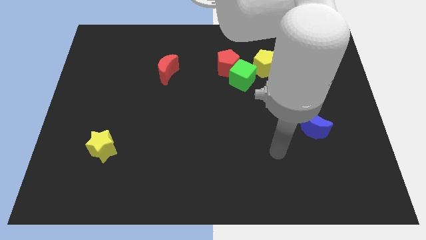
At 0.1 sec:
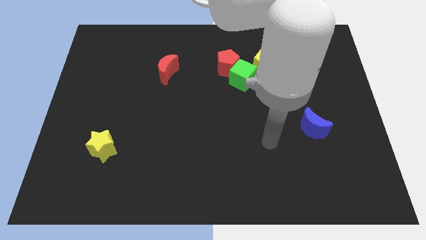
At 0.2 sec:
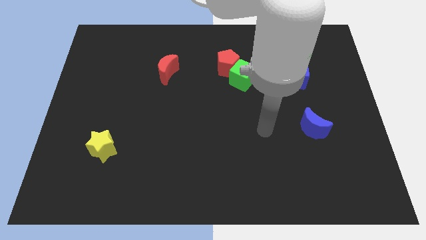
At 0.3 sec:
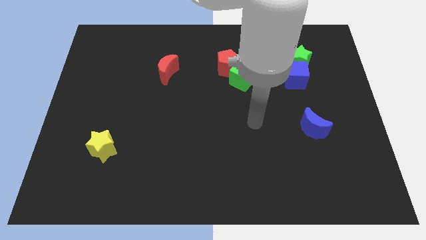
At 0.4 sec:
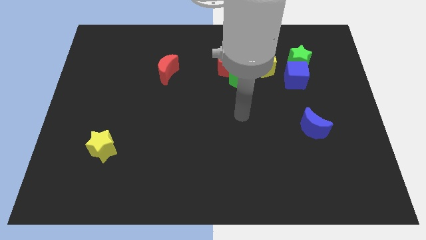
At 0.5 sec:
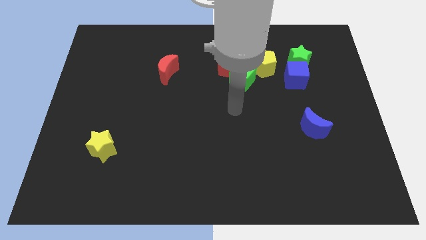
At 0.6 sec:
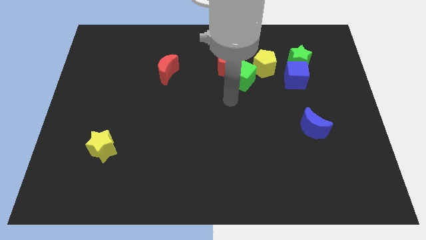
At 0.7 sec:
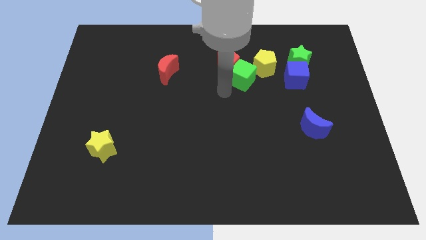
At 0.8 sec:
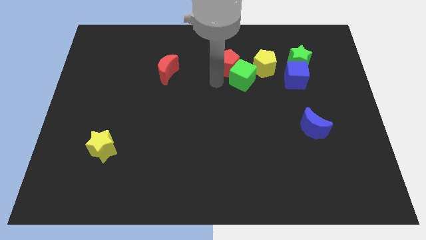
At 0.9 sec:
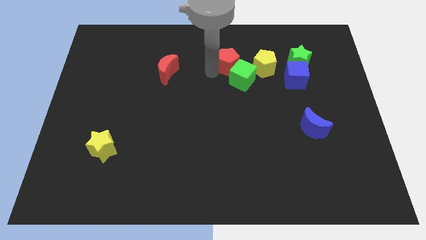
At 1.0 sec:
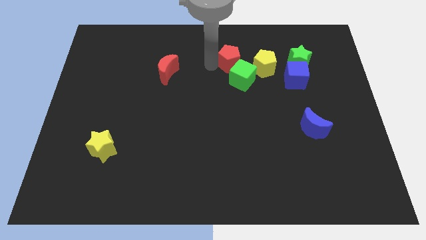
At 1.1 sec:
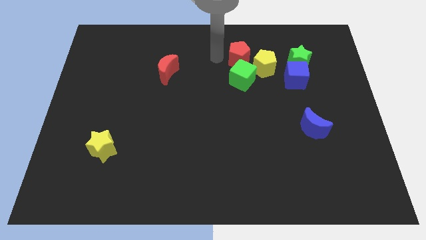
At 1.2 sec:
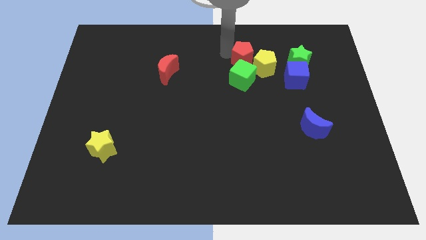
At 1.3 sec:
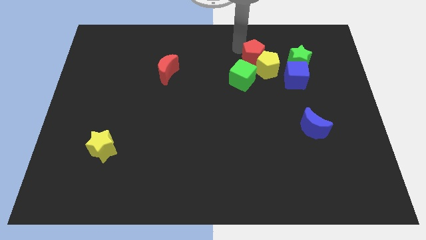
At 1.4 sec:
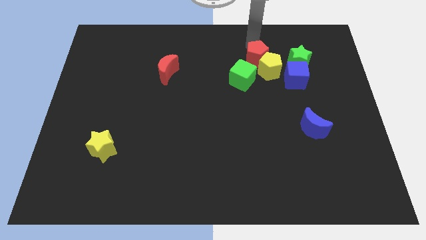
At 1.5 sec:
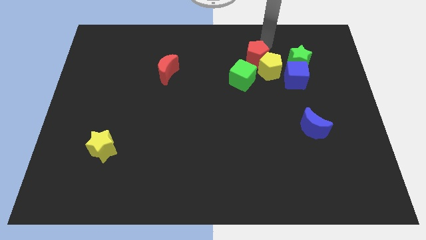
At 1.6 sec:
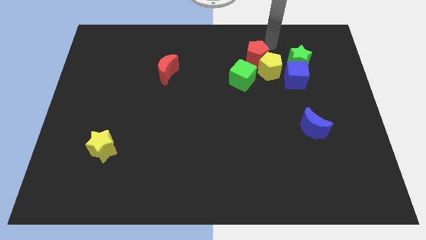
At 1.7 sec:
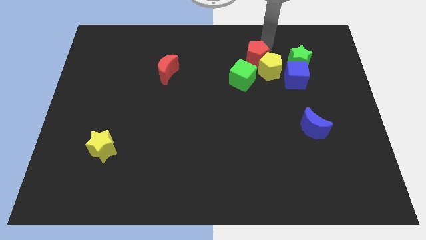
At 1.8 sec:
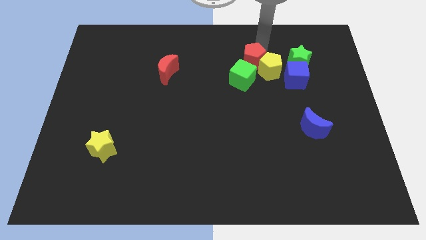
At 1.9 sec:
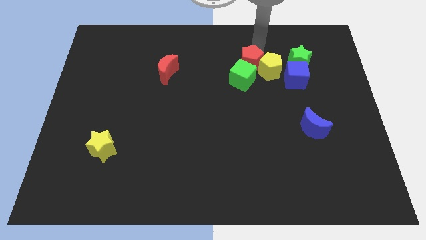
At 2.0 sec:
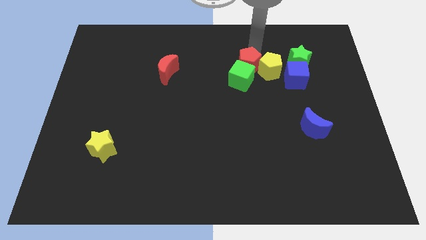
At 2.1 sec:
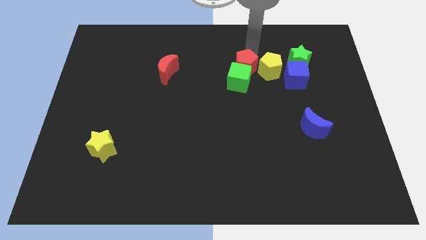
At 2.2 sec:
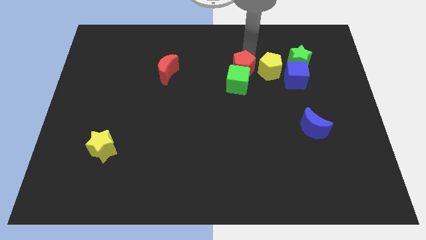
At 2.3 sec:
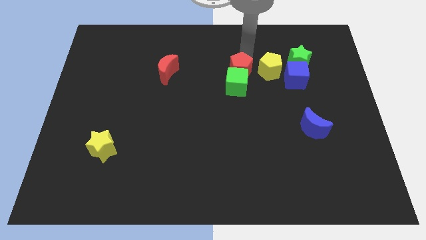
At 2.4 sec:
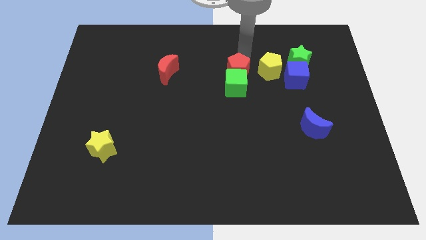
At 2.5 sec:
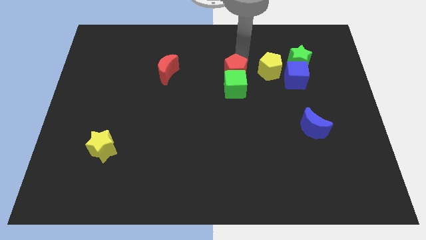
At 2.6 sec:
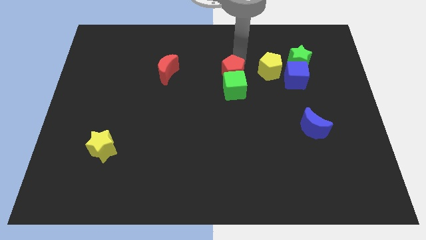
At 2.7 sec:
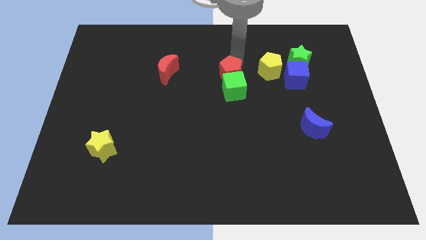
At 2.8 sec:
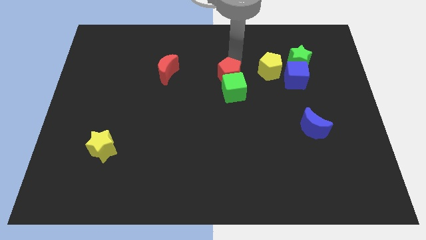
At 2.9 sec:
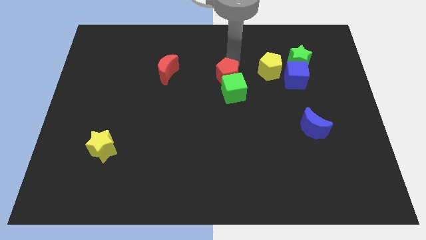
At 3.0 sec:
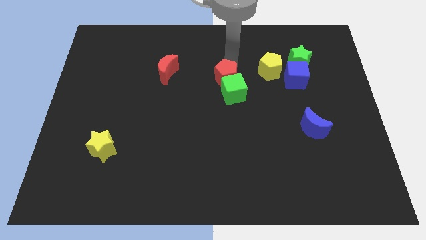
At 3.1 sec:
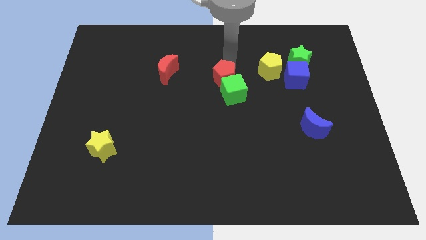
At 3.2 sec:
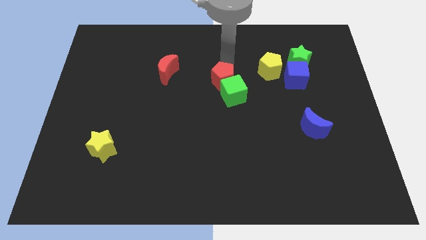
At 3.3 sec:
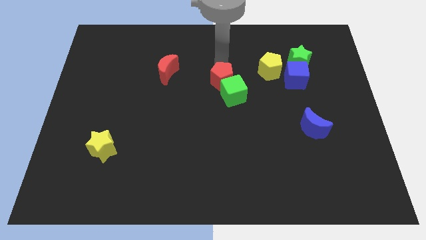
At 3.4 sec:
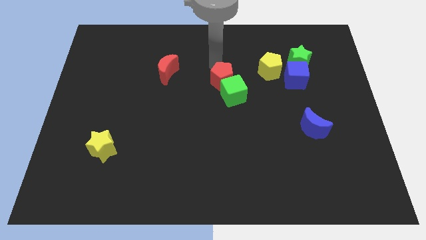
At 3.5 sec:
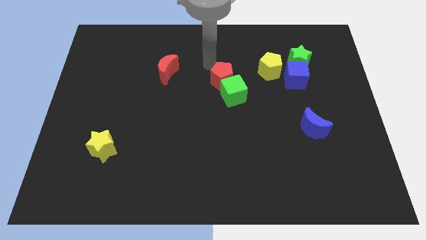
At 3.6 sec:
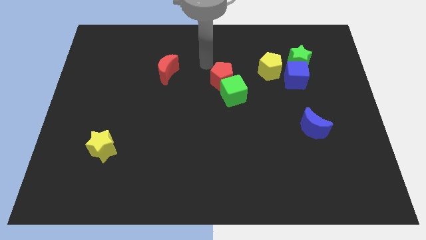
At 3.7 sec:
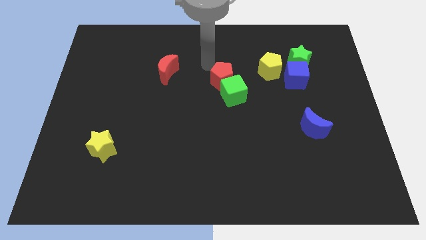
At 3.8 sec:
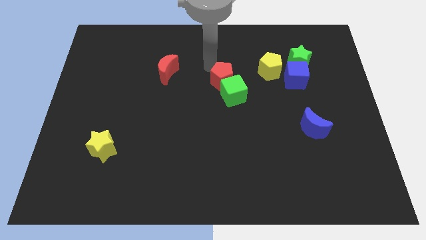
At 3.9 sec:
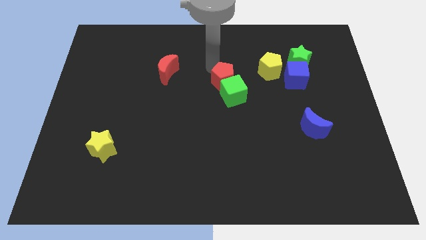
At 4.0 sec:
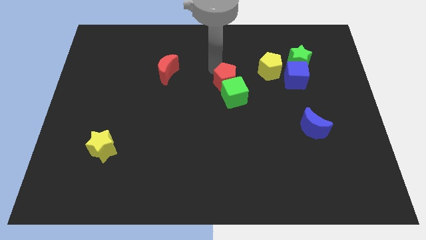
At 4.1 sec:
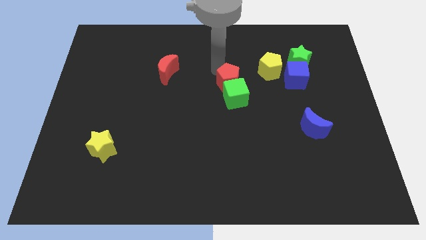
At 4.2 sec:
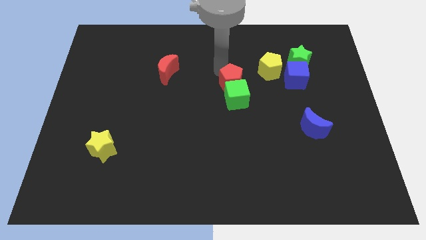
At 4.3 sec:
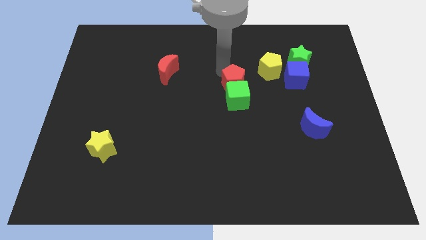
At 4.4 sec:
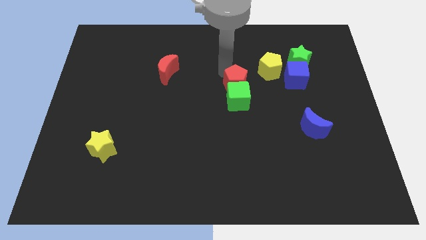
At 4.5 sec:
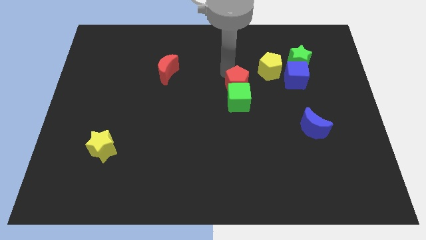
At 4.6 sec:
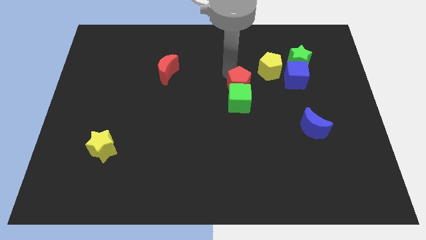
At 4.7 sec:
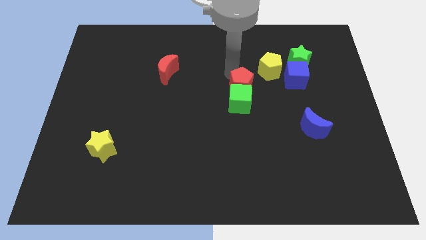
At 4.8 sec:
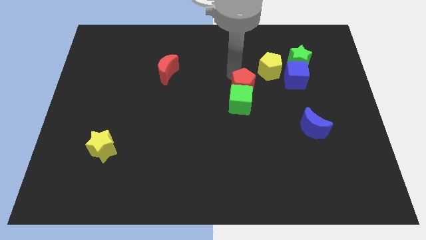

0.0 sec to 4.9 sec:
move the red pentagon a little diagonally down and right

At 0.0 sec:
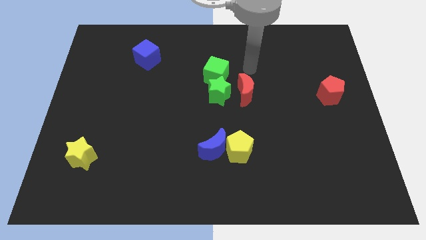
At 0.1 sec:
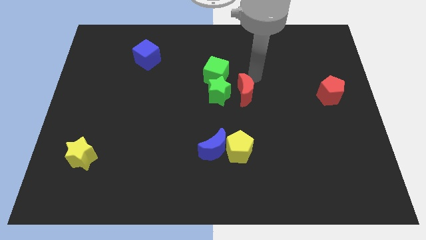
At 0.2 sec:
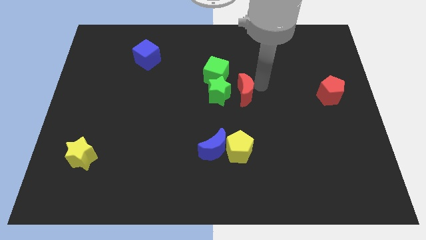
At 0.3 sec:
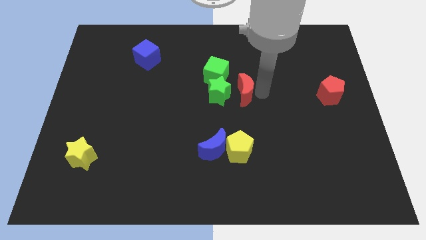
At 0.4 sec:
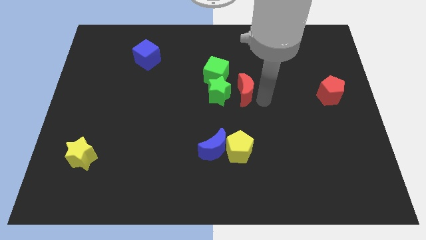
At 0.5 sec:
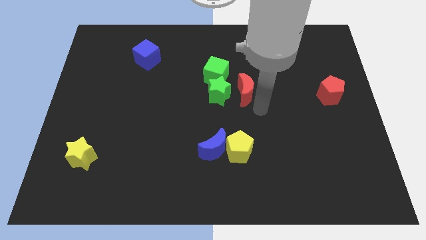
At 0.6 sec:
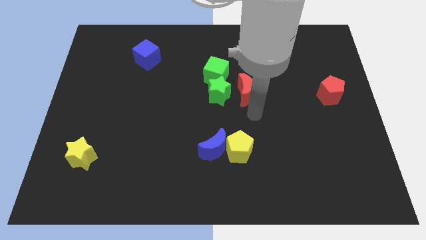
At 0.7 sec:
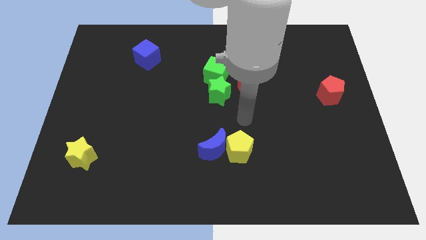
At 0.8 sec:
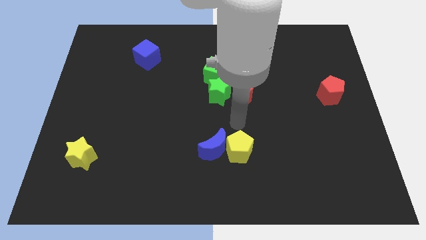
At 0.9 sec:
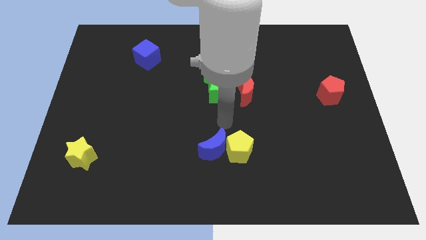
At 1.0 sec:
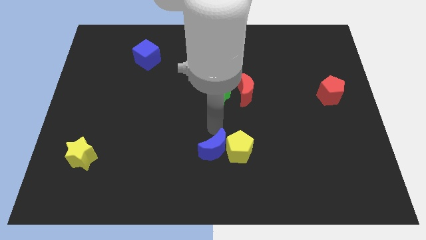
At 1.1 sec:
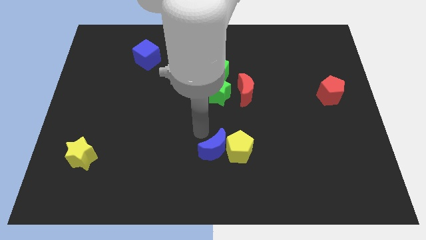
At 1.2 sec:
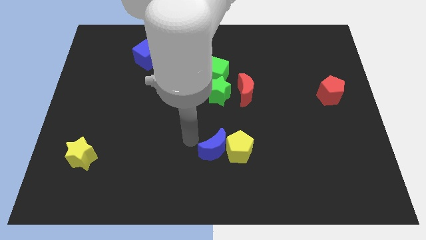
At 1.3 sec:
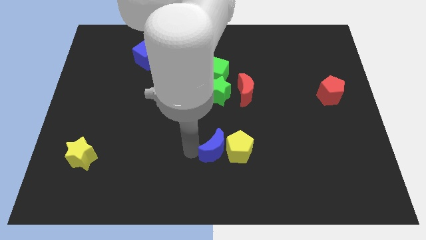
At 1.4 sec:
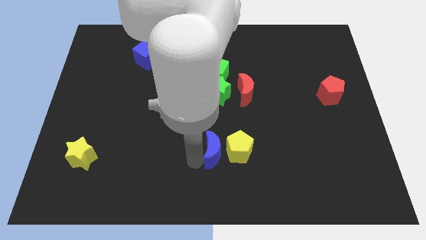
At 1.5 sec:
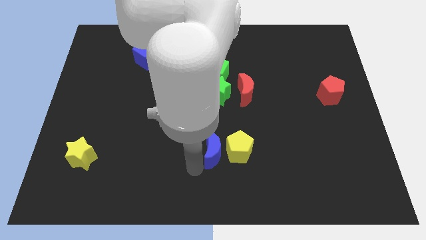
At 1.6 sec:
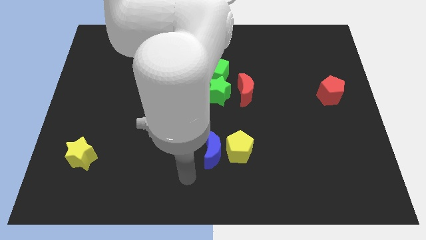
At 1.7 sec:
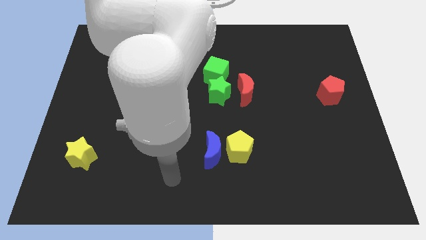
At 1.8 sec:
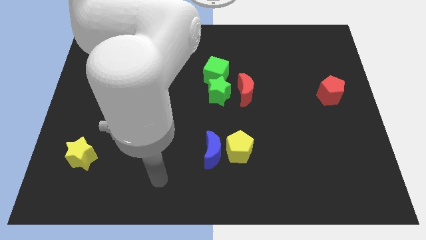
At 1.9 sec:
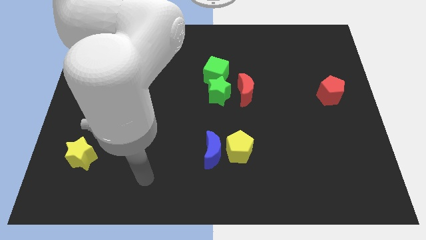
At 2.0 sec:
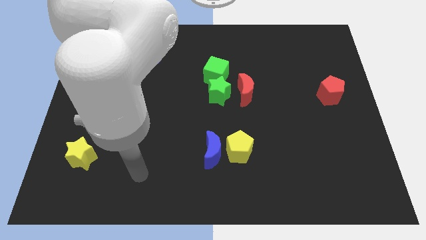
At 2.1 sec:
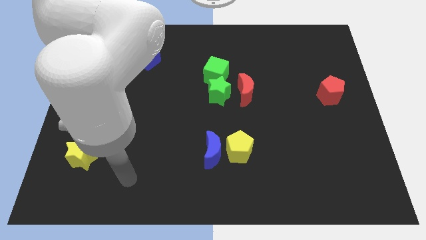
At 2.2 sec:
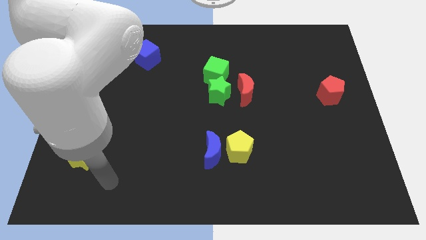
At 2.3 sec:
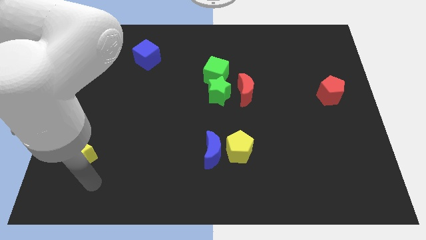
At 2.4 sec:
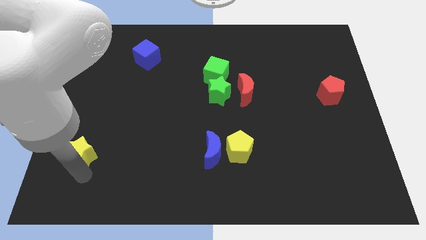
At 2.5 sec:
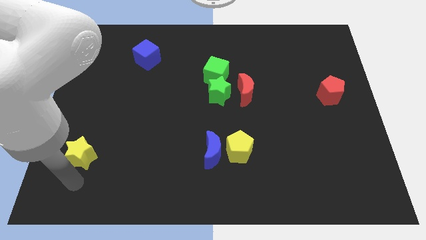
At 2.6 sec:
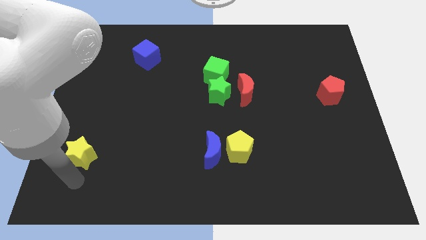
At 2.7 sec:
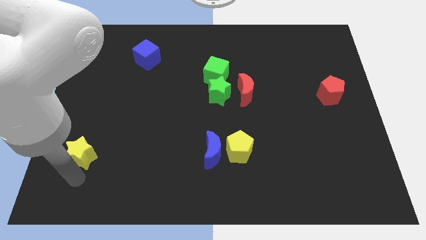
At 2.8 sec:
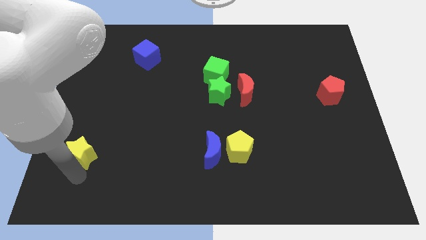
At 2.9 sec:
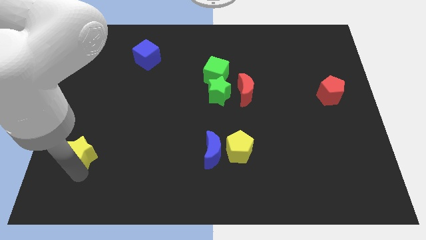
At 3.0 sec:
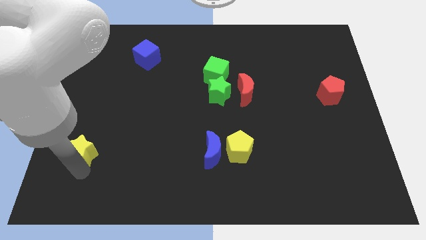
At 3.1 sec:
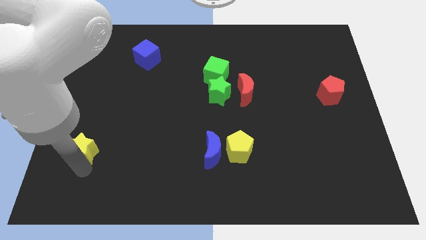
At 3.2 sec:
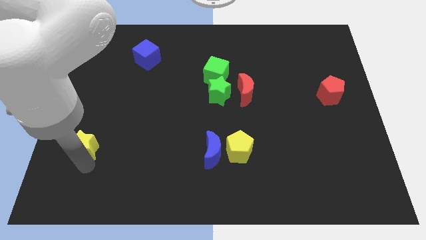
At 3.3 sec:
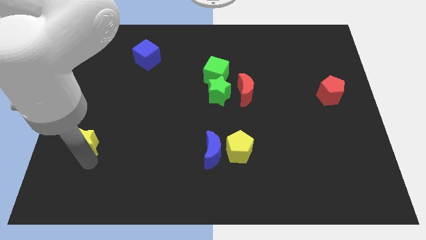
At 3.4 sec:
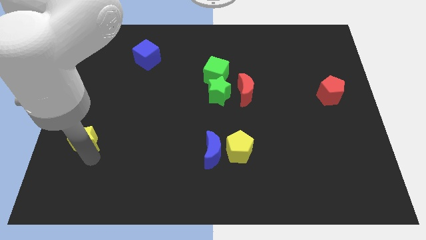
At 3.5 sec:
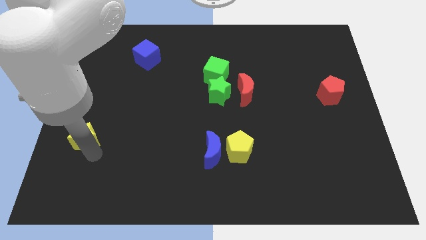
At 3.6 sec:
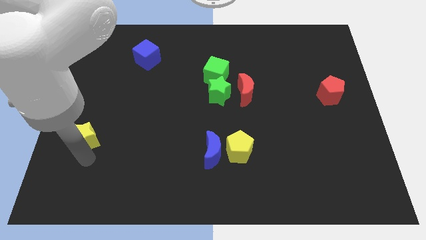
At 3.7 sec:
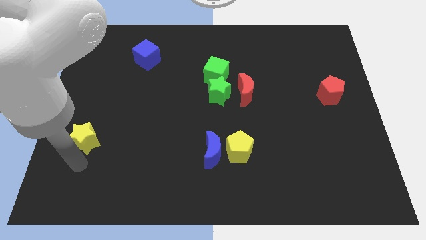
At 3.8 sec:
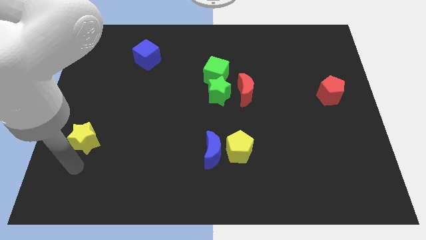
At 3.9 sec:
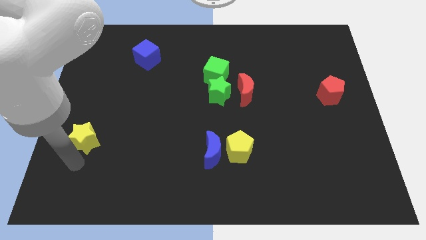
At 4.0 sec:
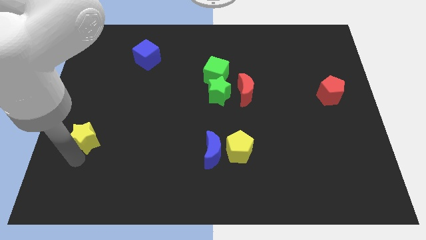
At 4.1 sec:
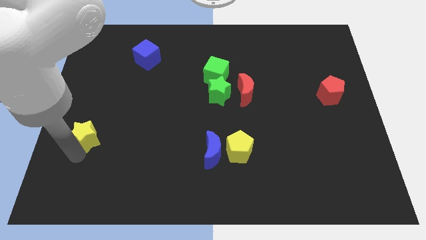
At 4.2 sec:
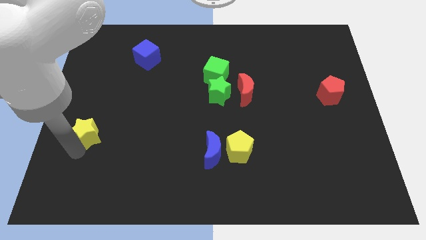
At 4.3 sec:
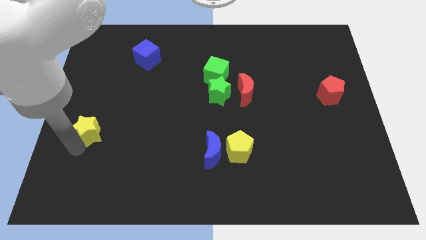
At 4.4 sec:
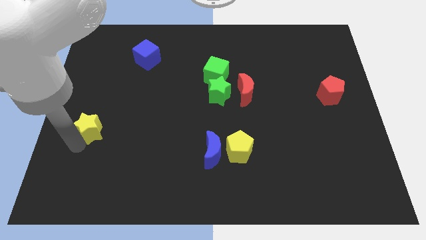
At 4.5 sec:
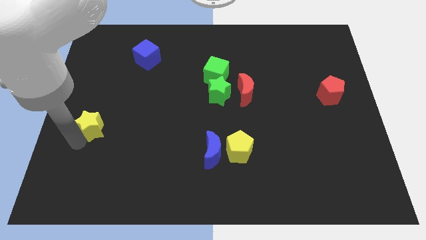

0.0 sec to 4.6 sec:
move the yellow star a little bit up
